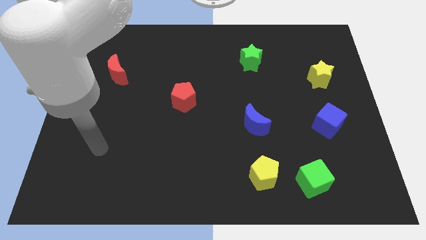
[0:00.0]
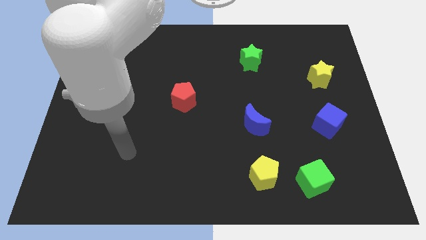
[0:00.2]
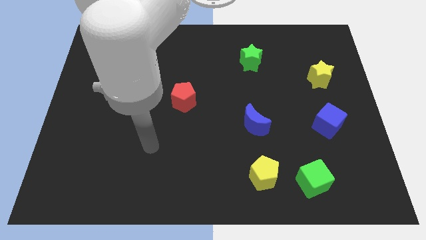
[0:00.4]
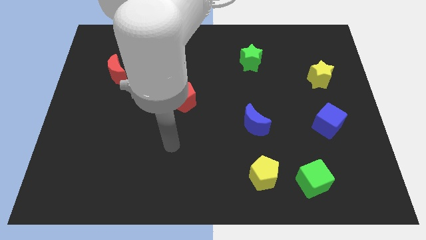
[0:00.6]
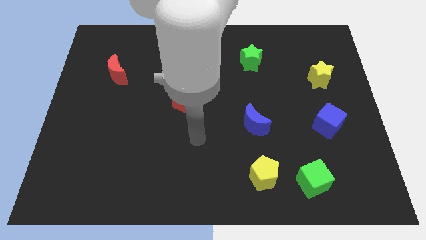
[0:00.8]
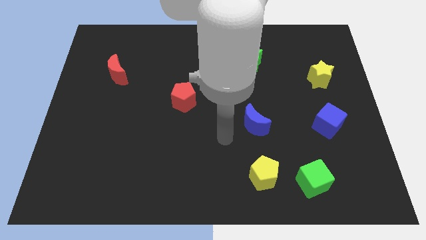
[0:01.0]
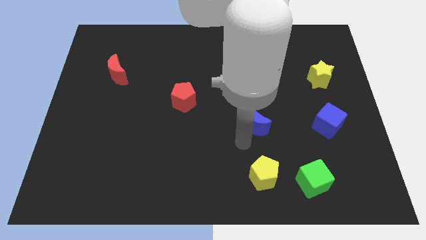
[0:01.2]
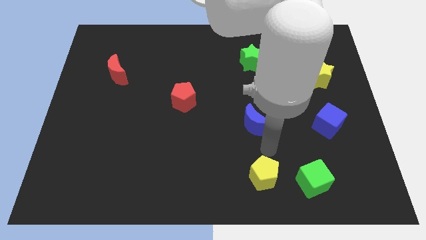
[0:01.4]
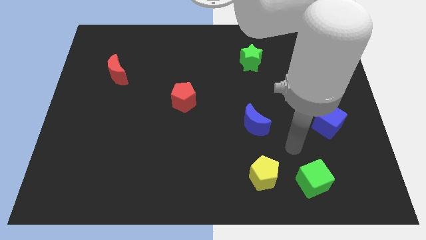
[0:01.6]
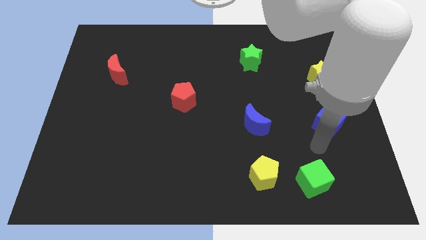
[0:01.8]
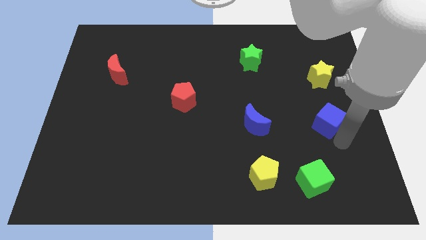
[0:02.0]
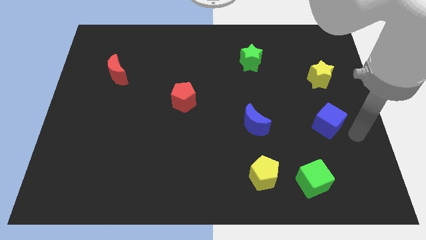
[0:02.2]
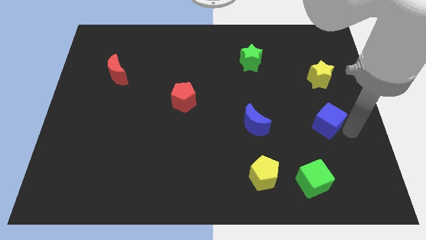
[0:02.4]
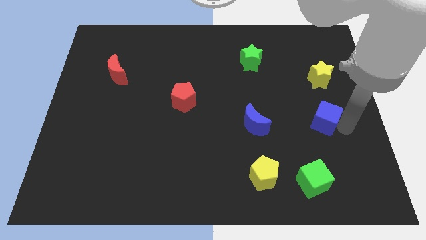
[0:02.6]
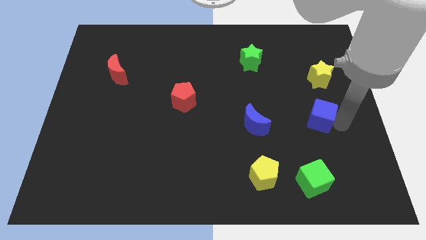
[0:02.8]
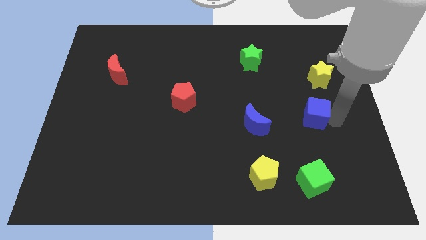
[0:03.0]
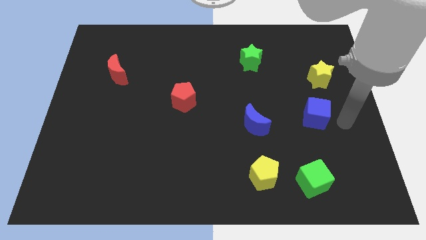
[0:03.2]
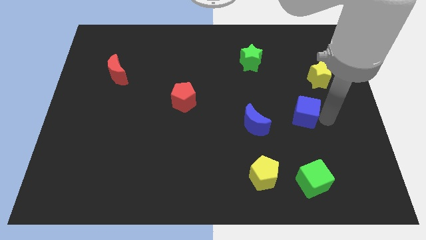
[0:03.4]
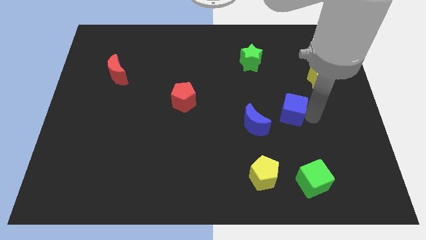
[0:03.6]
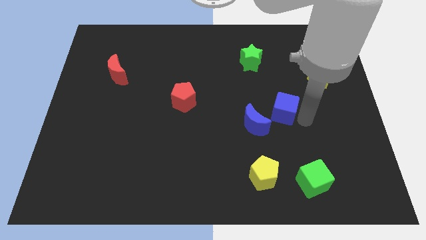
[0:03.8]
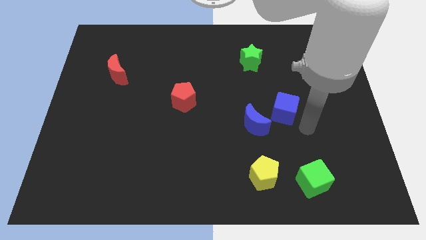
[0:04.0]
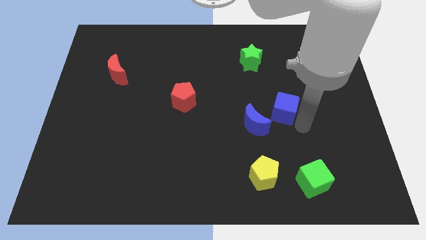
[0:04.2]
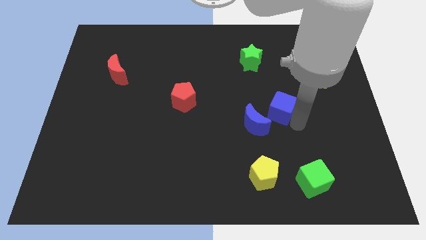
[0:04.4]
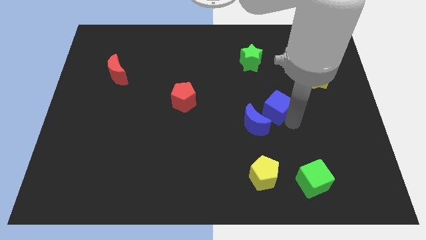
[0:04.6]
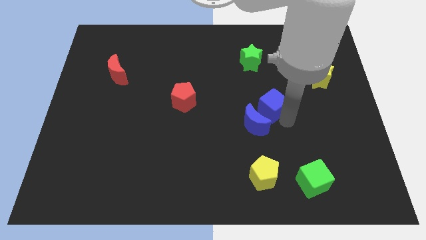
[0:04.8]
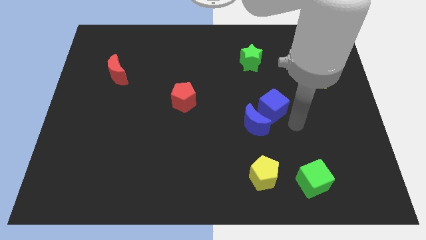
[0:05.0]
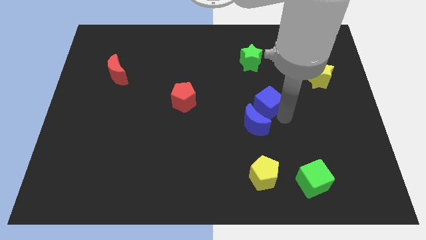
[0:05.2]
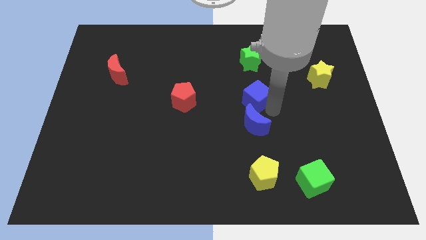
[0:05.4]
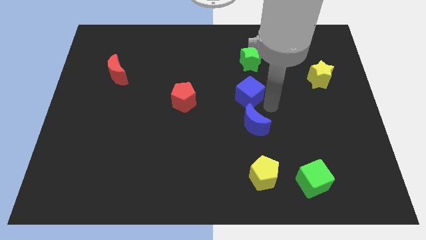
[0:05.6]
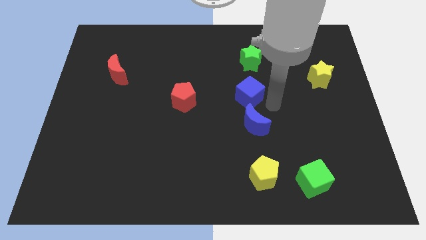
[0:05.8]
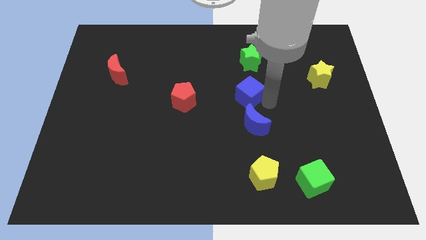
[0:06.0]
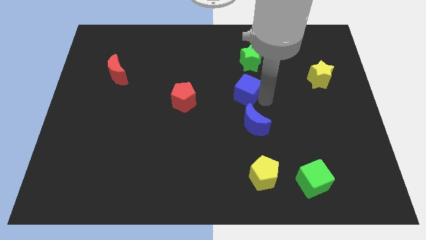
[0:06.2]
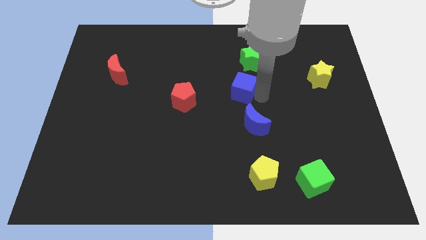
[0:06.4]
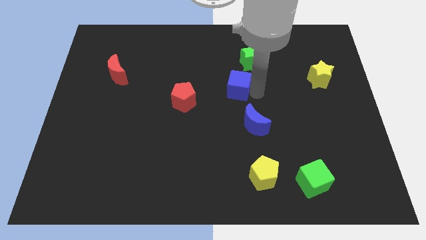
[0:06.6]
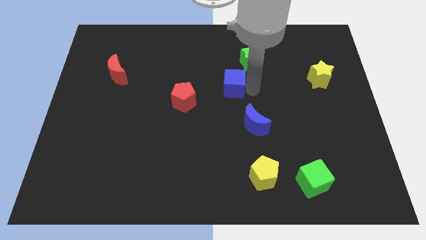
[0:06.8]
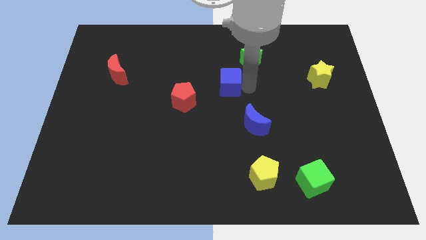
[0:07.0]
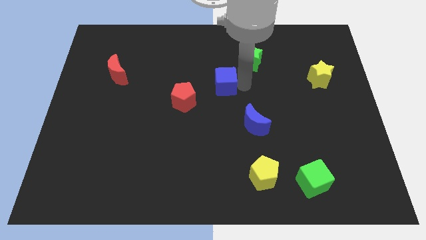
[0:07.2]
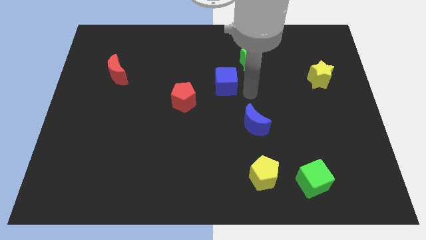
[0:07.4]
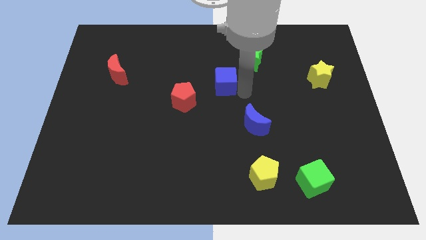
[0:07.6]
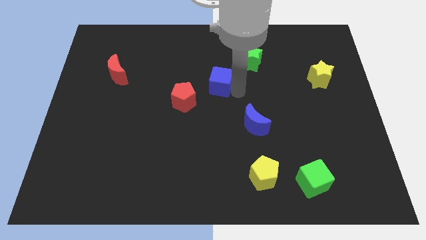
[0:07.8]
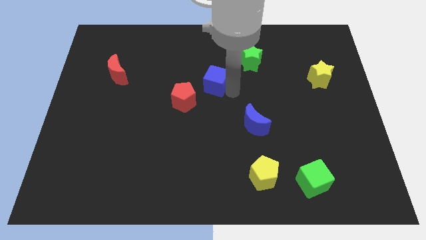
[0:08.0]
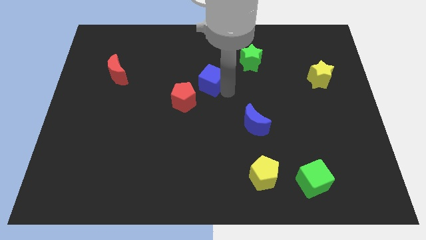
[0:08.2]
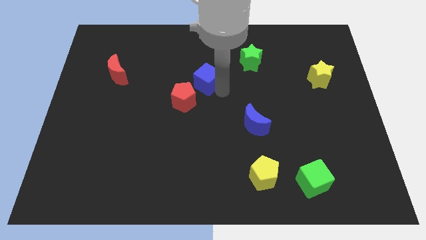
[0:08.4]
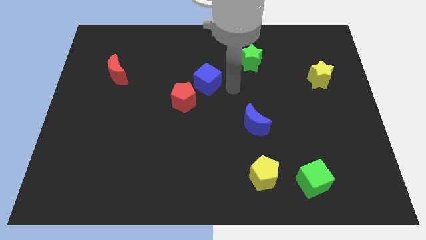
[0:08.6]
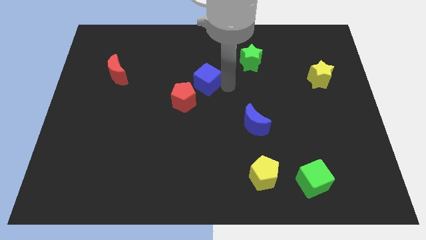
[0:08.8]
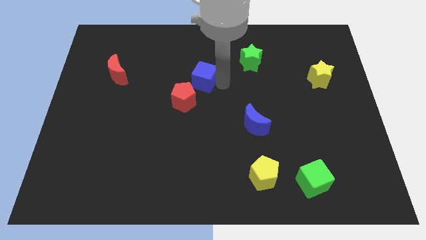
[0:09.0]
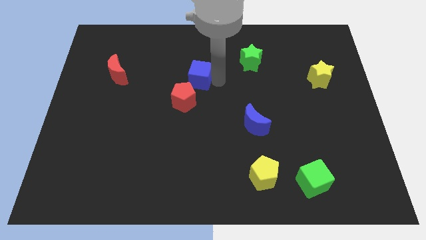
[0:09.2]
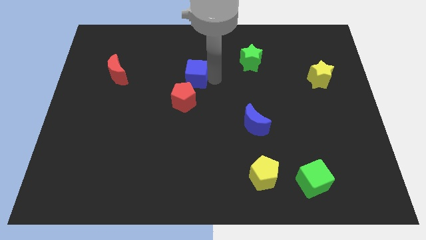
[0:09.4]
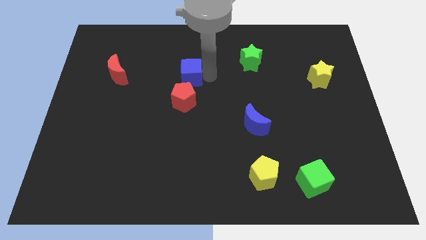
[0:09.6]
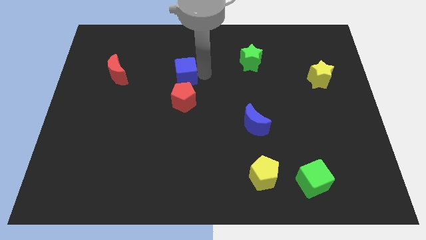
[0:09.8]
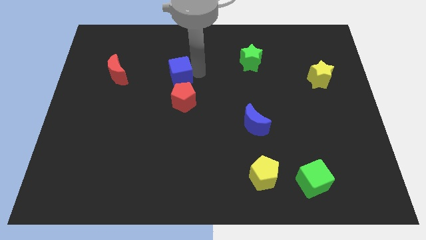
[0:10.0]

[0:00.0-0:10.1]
slide the blue cube to the top left of the red pentagon

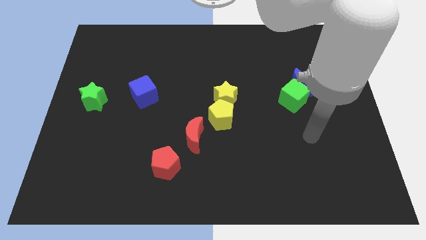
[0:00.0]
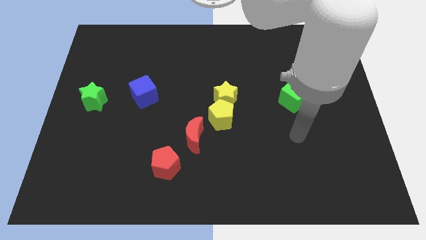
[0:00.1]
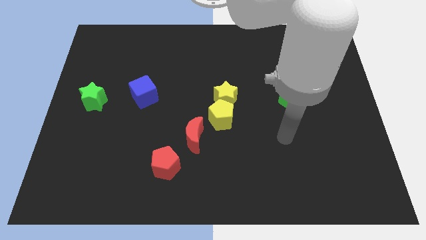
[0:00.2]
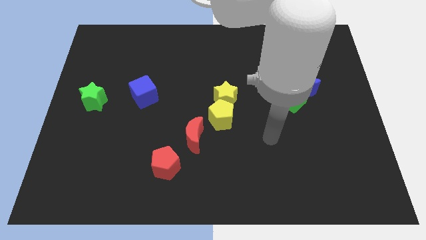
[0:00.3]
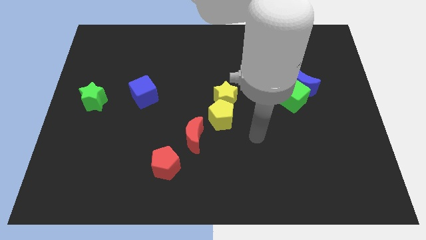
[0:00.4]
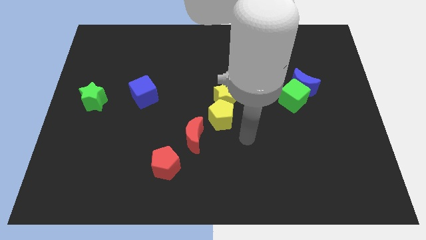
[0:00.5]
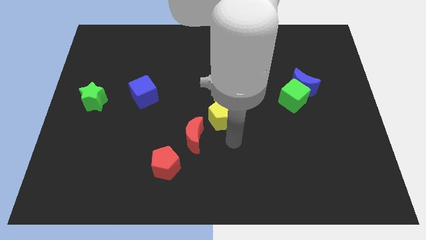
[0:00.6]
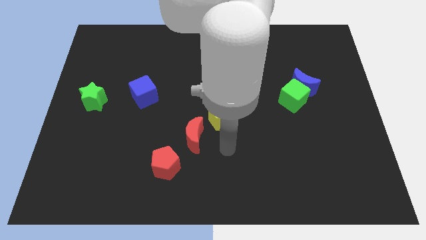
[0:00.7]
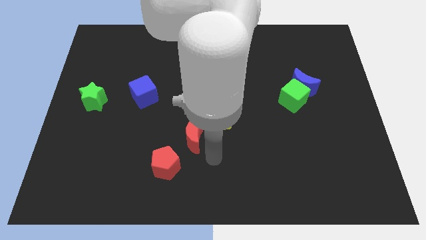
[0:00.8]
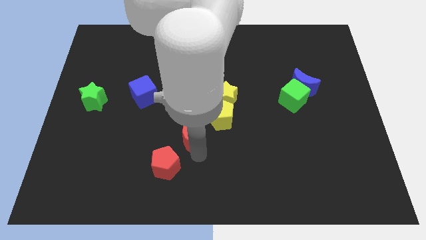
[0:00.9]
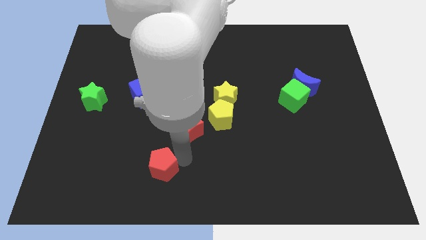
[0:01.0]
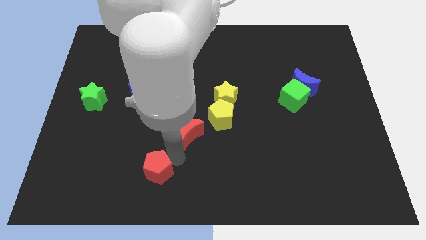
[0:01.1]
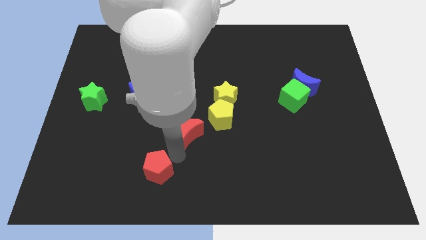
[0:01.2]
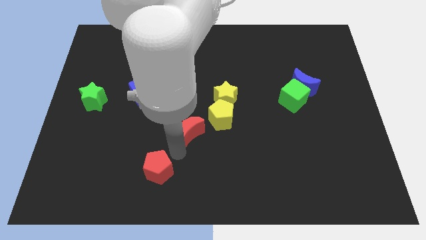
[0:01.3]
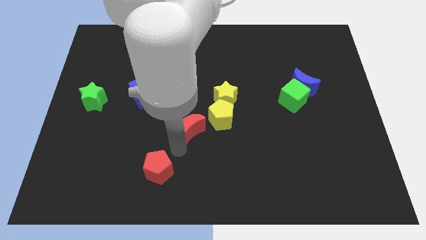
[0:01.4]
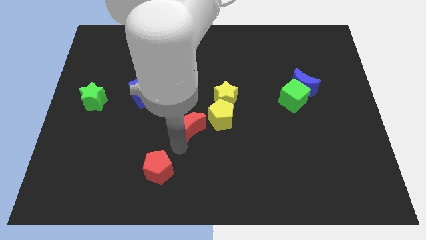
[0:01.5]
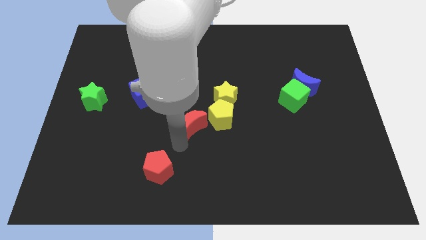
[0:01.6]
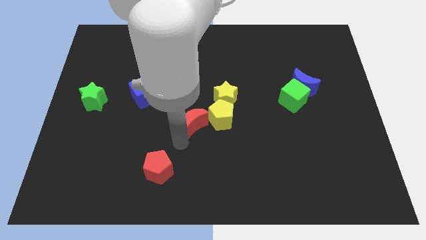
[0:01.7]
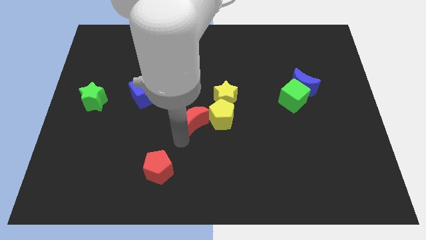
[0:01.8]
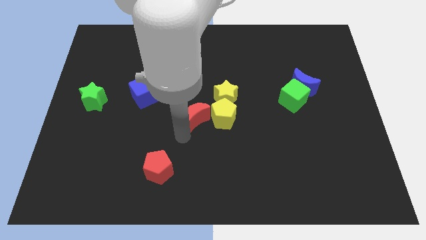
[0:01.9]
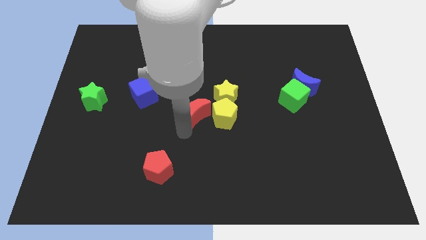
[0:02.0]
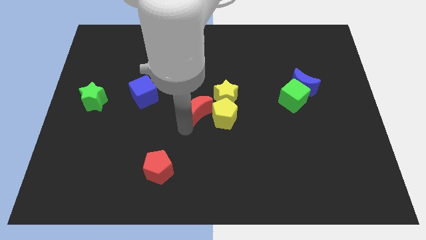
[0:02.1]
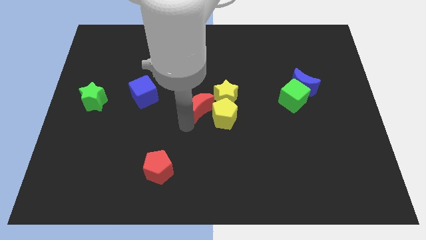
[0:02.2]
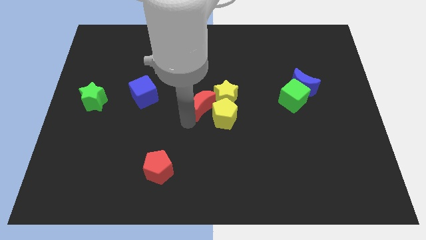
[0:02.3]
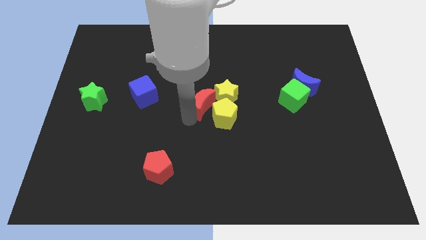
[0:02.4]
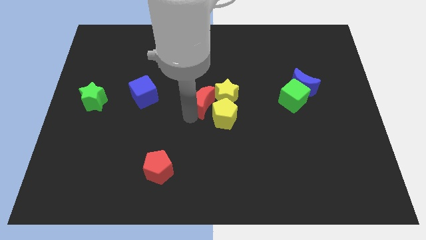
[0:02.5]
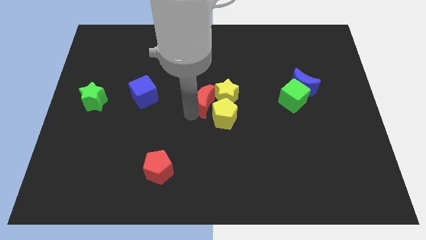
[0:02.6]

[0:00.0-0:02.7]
put the red moon to the top left of the yellow star

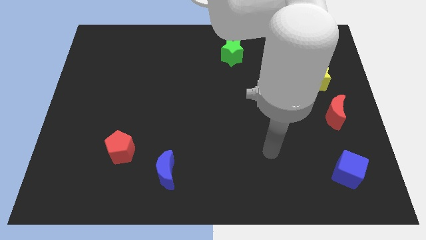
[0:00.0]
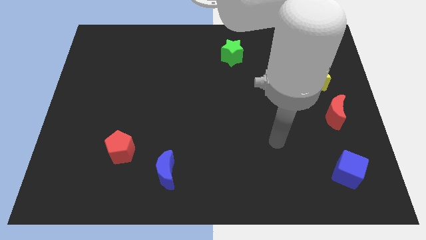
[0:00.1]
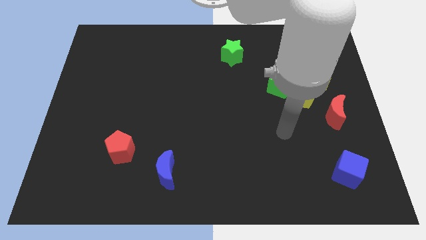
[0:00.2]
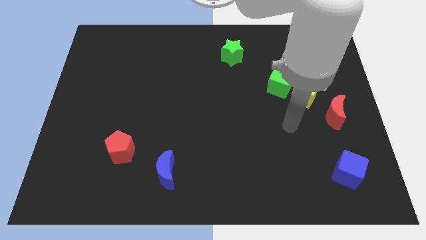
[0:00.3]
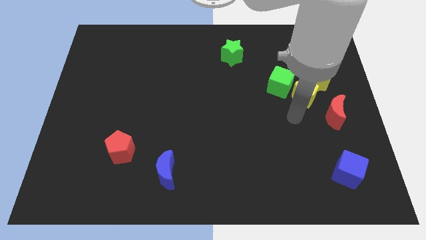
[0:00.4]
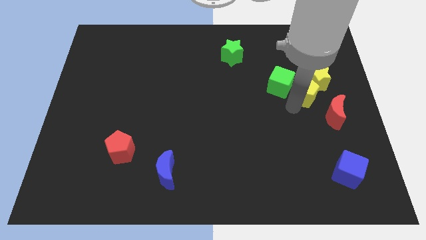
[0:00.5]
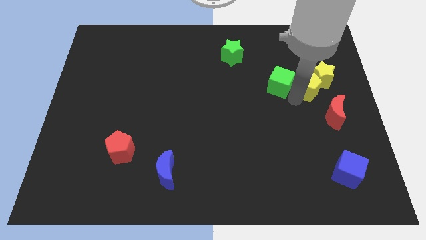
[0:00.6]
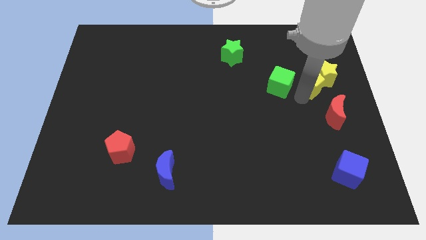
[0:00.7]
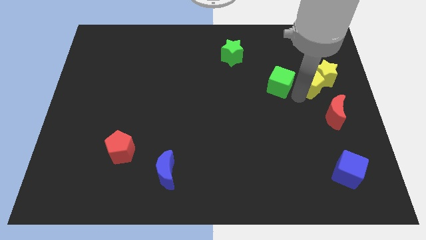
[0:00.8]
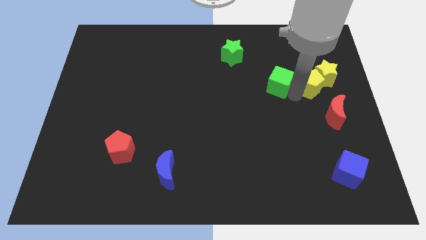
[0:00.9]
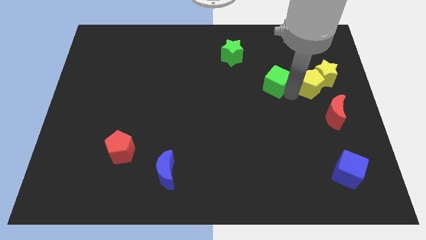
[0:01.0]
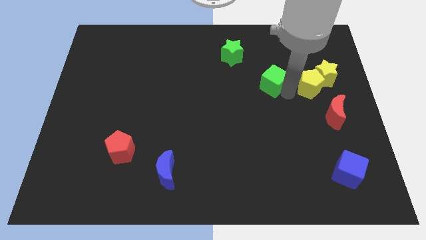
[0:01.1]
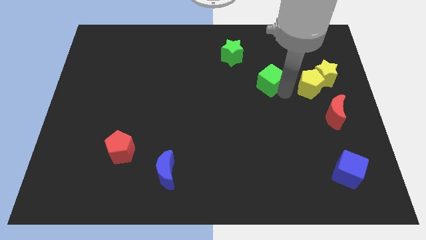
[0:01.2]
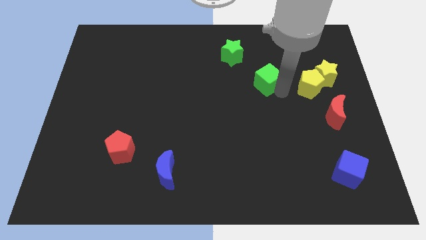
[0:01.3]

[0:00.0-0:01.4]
push the green cube diagonally down and to the right of the green star
